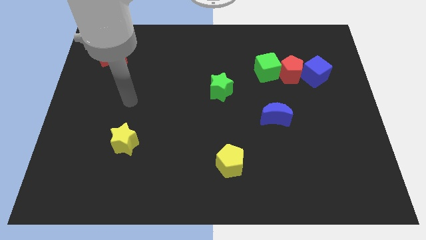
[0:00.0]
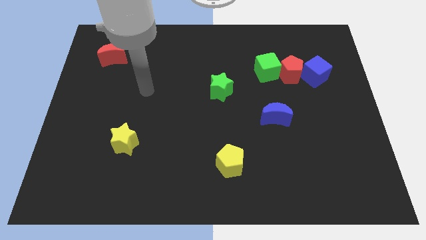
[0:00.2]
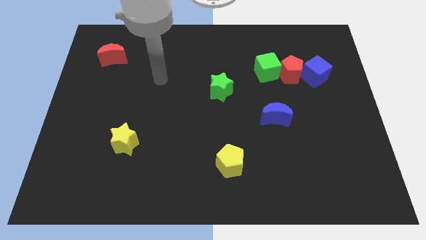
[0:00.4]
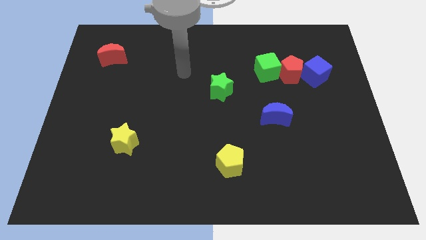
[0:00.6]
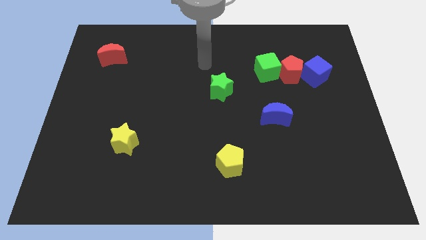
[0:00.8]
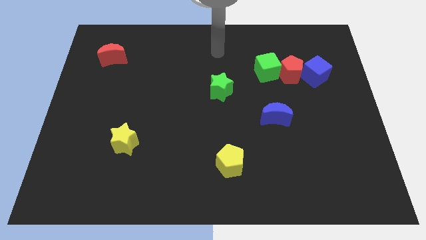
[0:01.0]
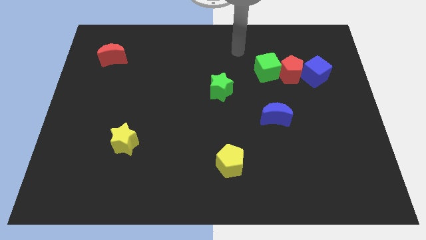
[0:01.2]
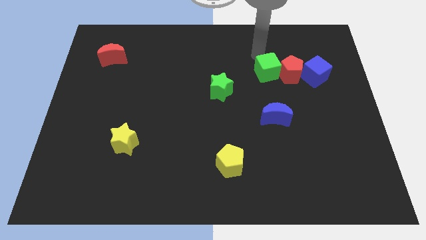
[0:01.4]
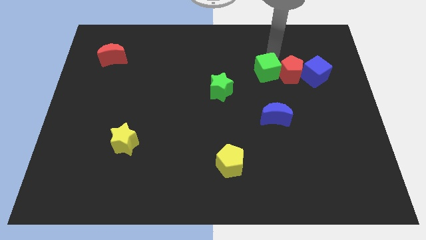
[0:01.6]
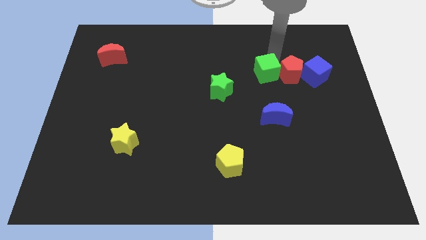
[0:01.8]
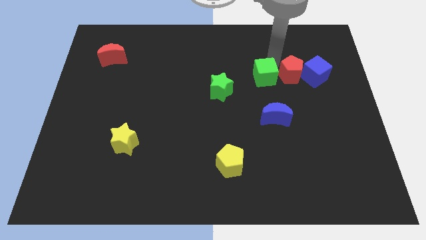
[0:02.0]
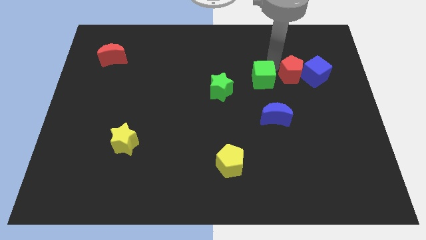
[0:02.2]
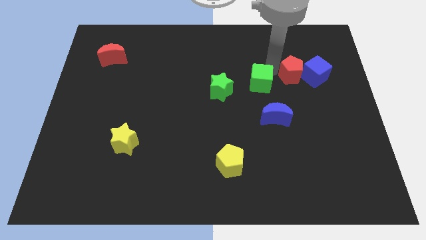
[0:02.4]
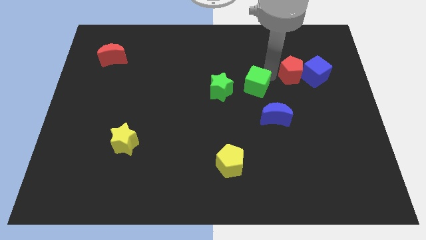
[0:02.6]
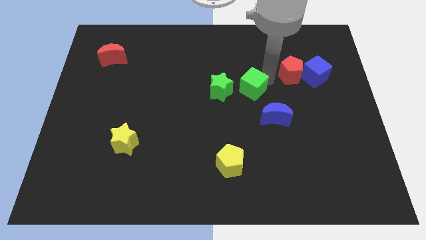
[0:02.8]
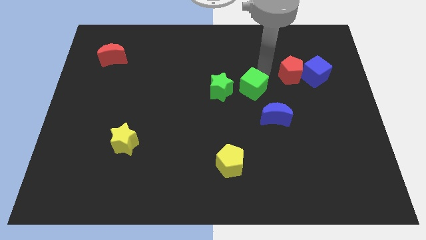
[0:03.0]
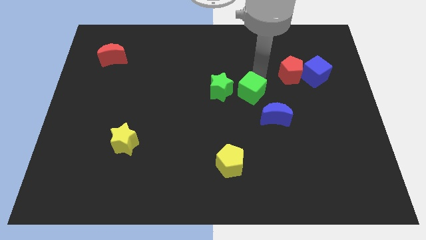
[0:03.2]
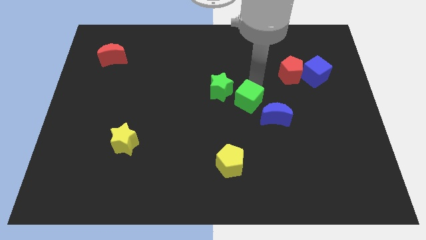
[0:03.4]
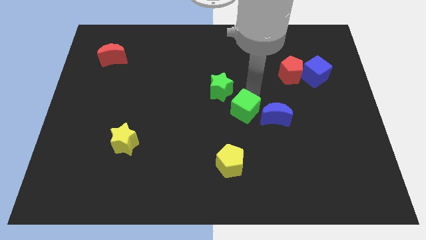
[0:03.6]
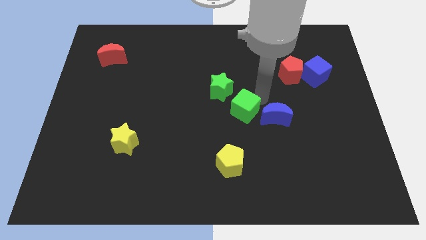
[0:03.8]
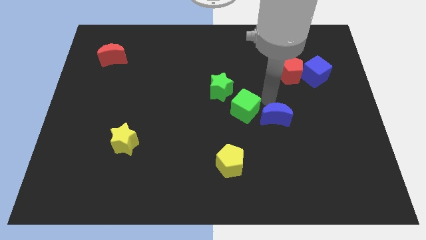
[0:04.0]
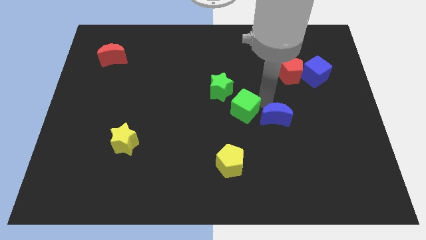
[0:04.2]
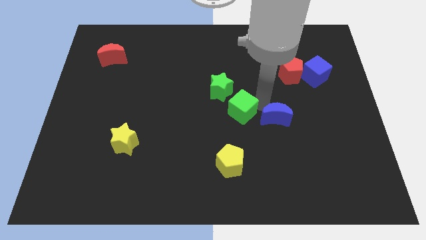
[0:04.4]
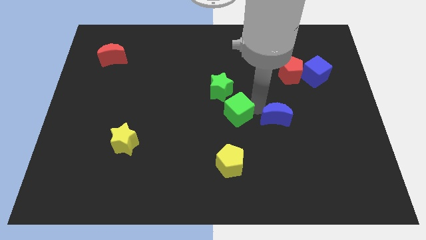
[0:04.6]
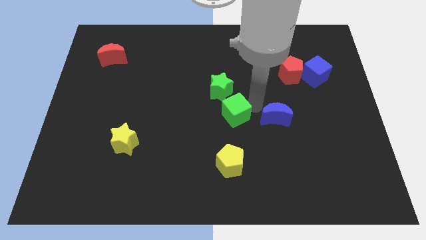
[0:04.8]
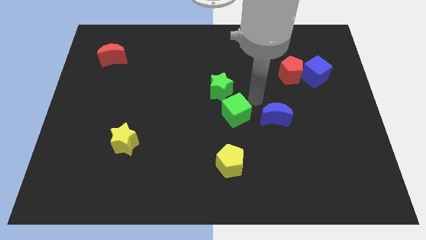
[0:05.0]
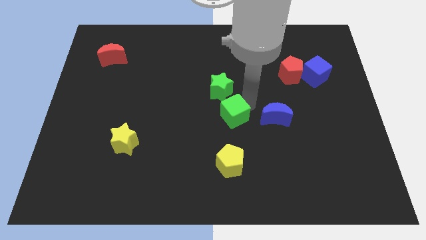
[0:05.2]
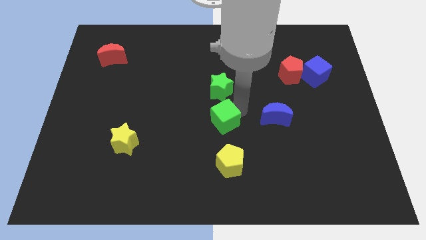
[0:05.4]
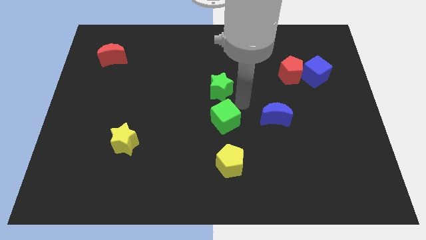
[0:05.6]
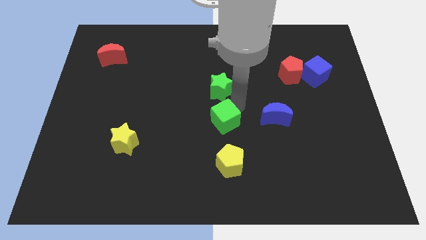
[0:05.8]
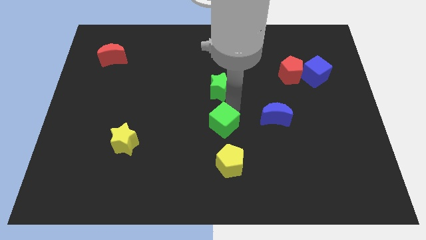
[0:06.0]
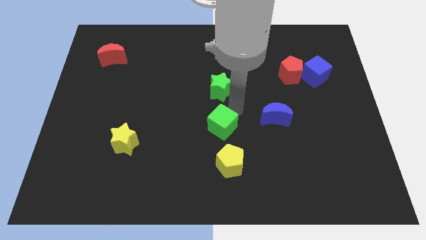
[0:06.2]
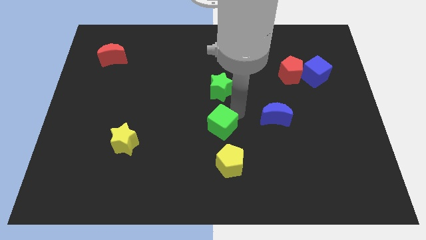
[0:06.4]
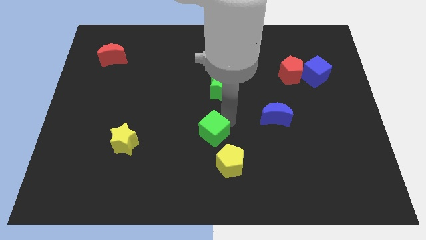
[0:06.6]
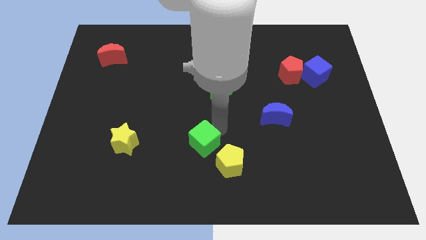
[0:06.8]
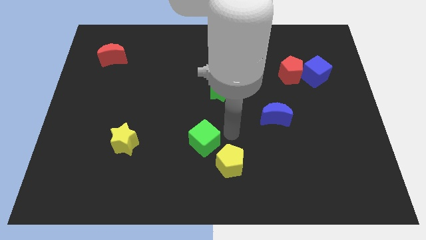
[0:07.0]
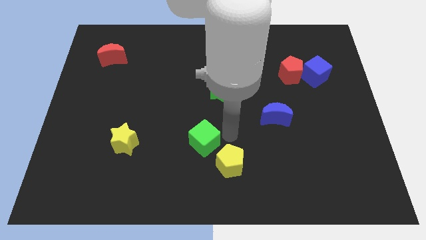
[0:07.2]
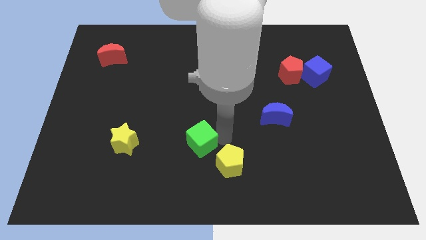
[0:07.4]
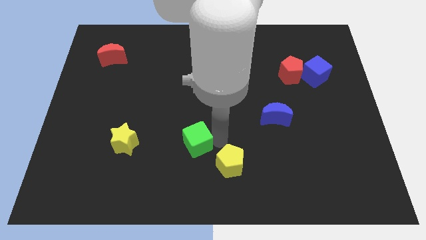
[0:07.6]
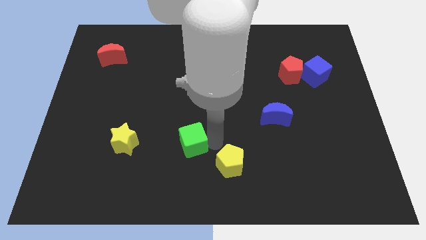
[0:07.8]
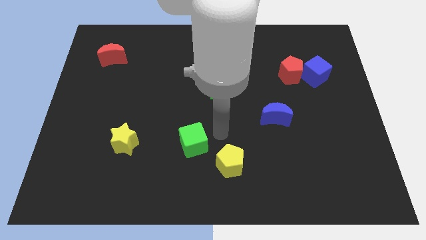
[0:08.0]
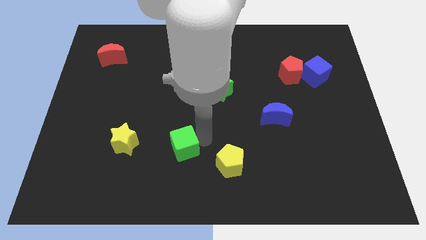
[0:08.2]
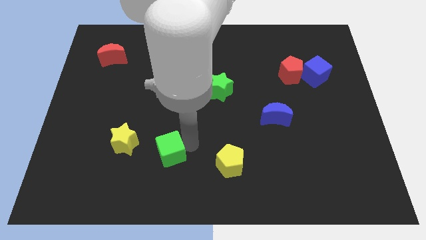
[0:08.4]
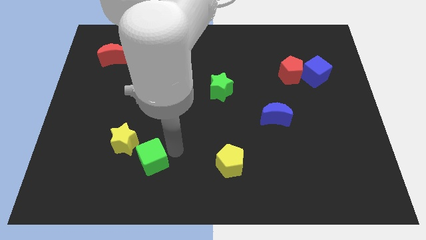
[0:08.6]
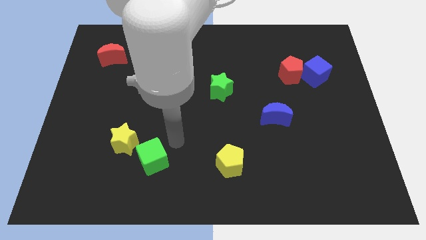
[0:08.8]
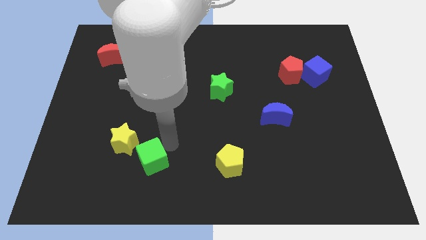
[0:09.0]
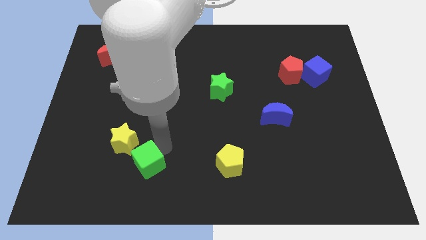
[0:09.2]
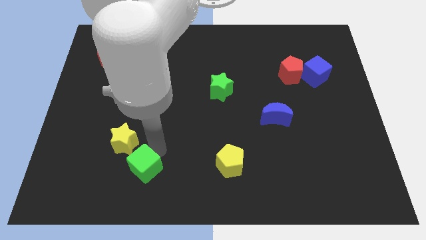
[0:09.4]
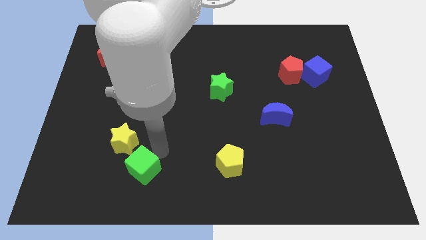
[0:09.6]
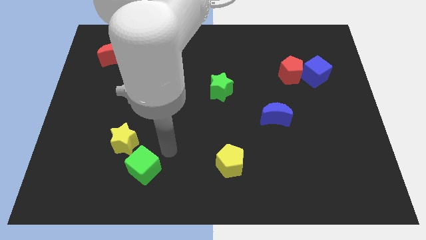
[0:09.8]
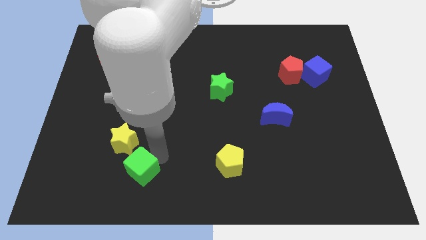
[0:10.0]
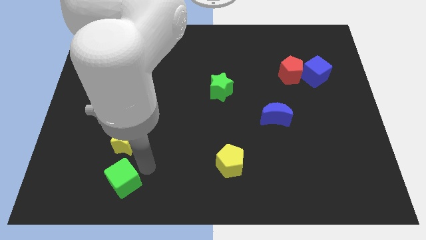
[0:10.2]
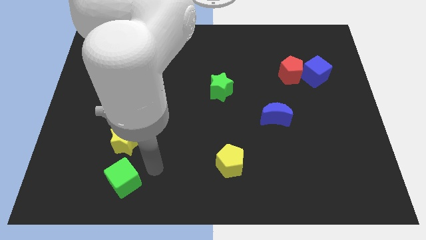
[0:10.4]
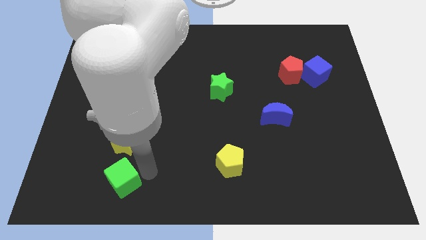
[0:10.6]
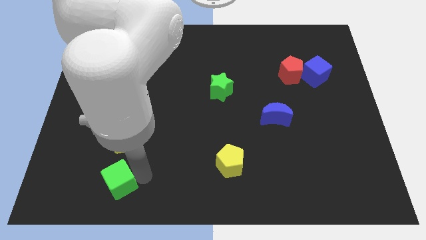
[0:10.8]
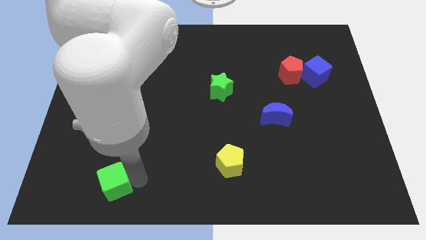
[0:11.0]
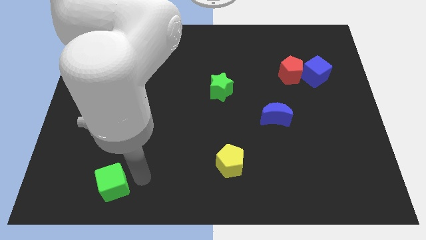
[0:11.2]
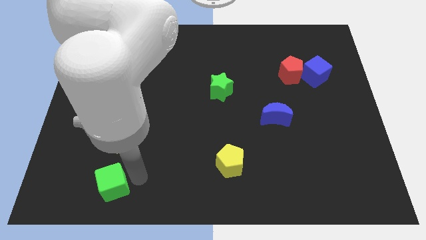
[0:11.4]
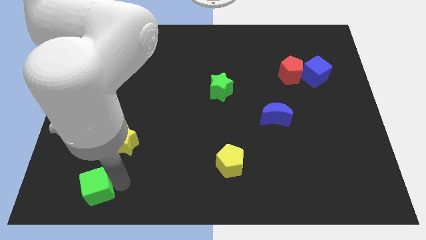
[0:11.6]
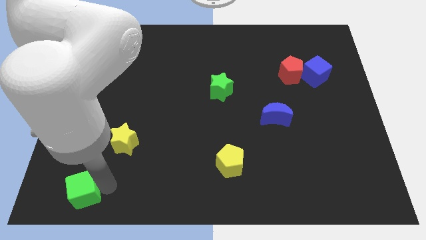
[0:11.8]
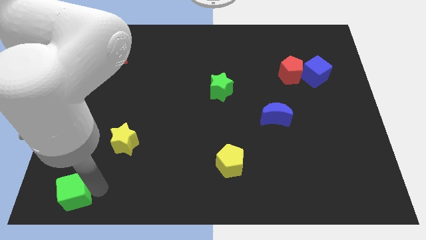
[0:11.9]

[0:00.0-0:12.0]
move the green cube to the lower left corner
